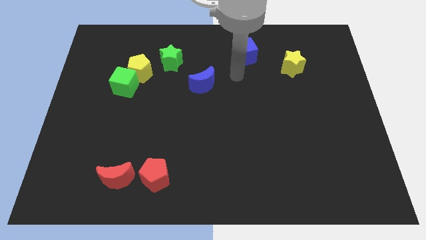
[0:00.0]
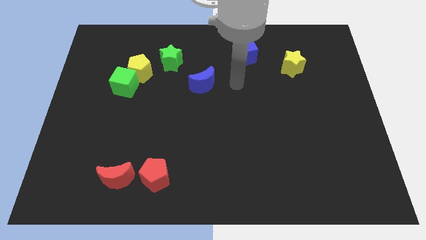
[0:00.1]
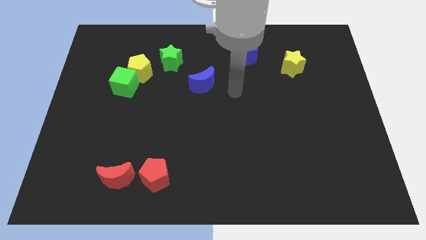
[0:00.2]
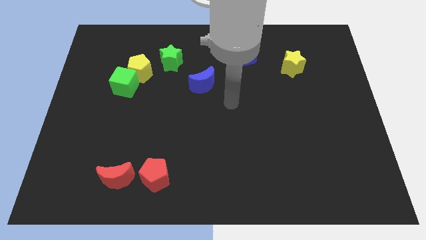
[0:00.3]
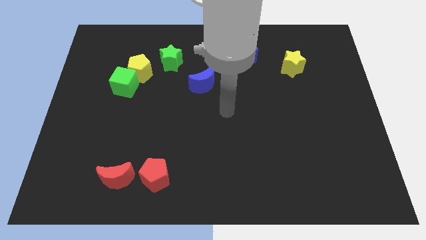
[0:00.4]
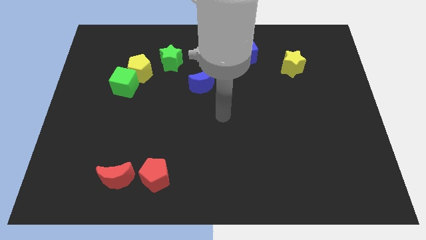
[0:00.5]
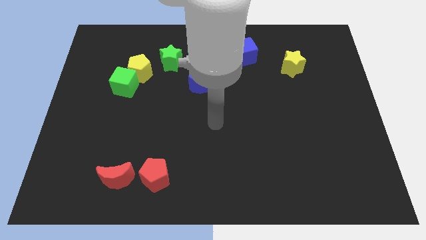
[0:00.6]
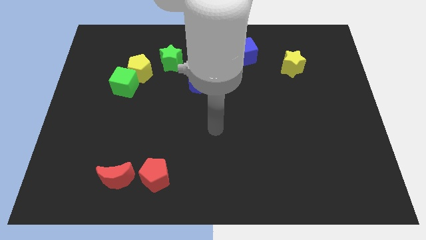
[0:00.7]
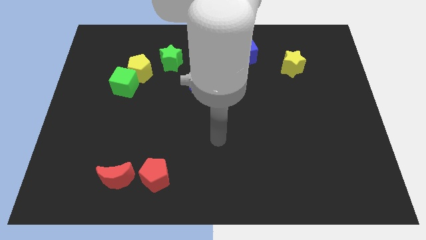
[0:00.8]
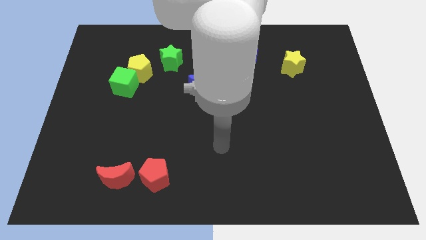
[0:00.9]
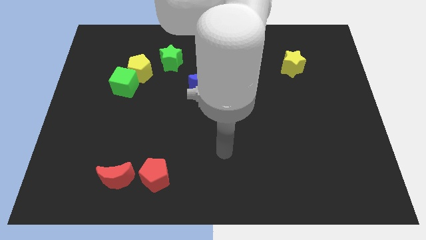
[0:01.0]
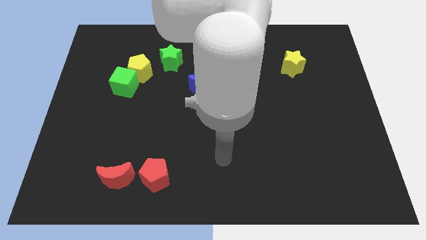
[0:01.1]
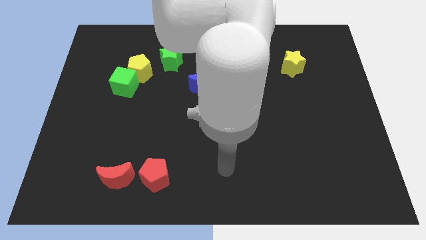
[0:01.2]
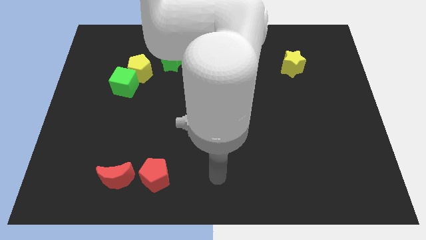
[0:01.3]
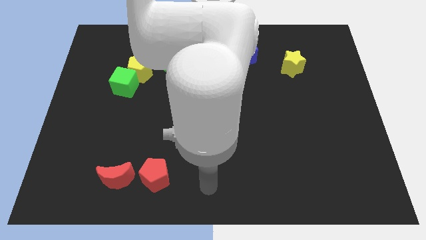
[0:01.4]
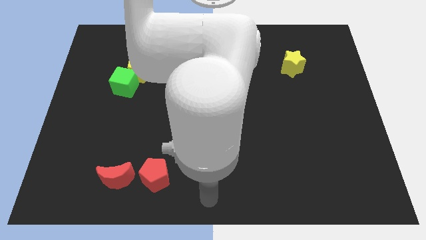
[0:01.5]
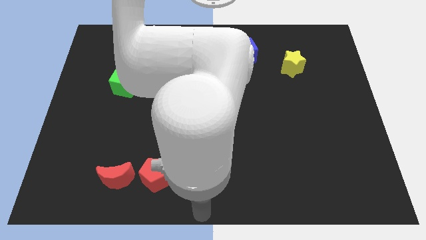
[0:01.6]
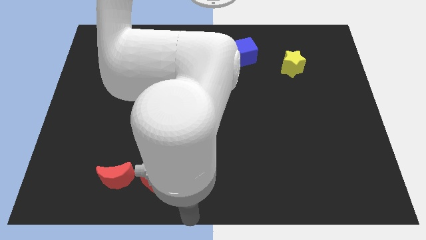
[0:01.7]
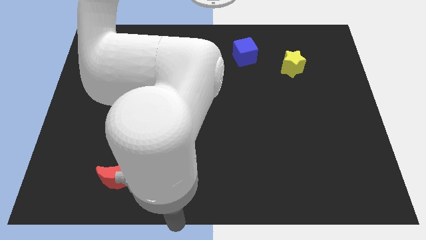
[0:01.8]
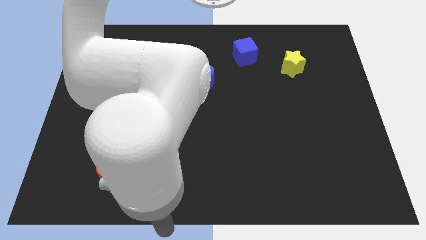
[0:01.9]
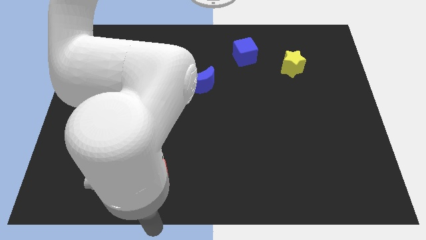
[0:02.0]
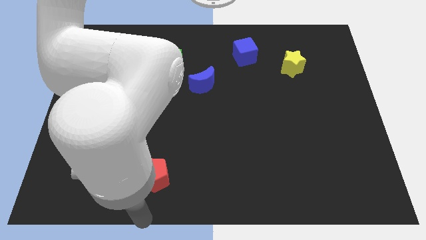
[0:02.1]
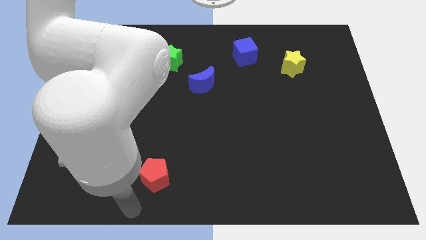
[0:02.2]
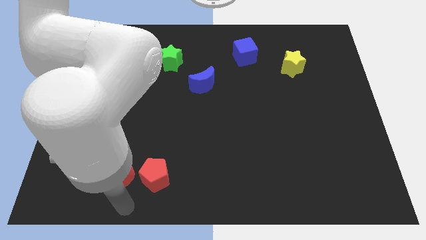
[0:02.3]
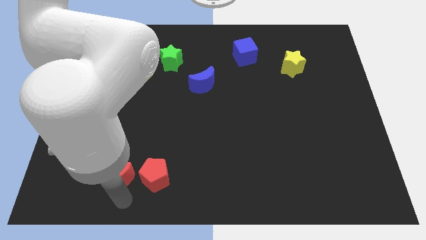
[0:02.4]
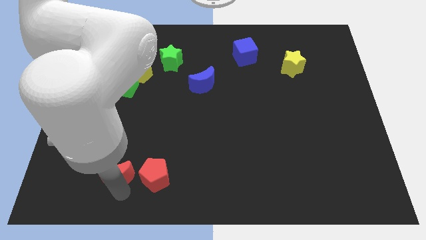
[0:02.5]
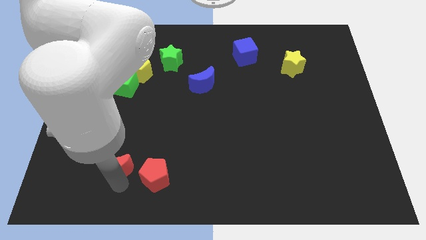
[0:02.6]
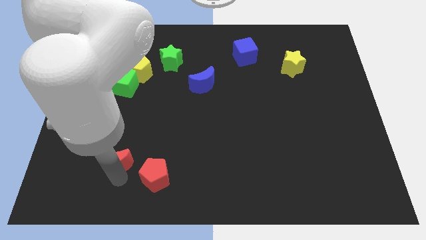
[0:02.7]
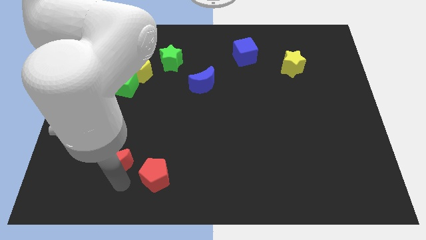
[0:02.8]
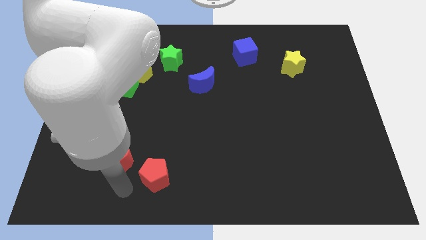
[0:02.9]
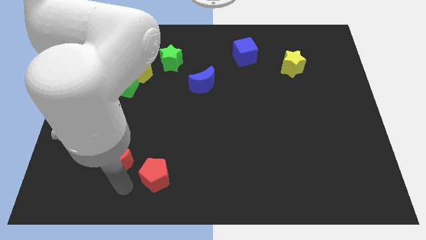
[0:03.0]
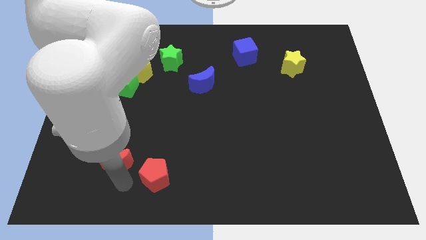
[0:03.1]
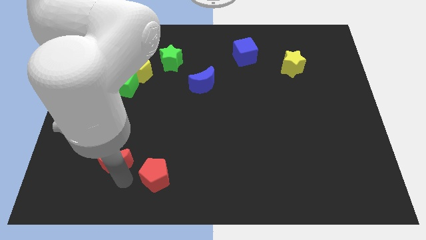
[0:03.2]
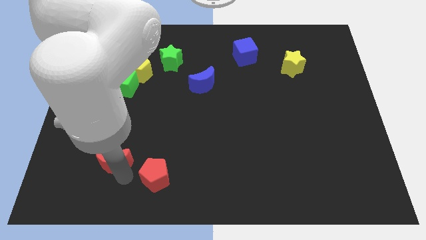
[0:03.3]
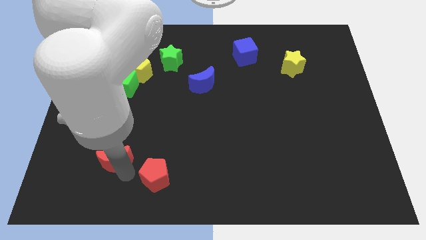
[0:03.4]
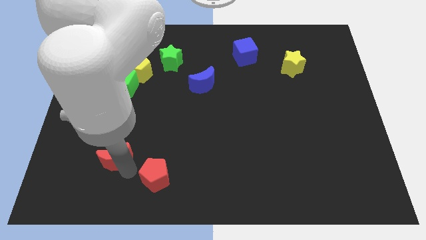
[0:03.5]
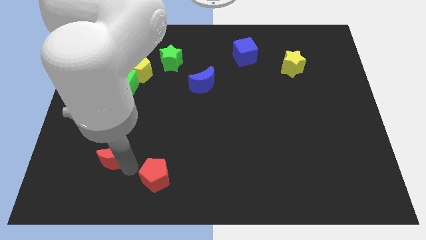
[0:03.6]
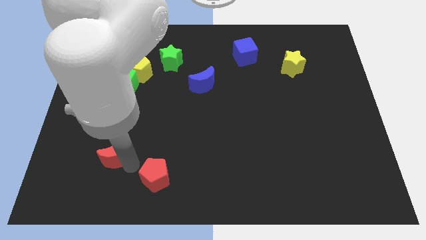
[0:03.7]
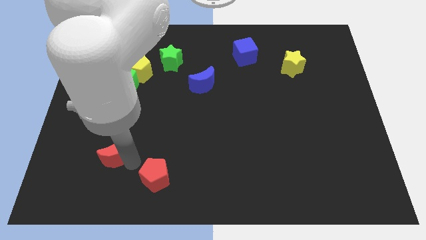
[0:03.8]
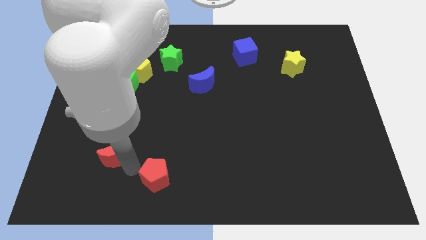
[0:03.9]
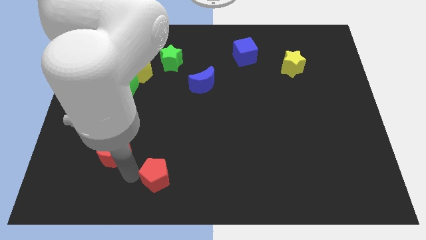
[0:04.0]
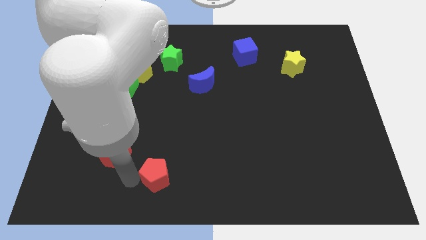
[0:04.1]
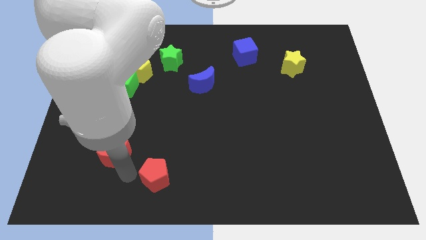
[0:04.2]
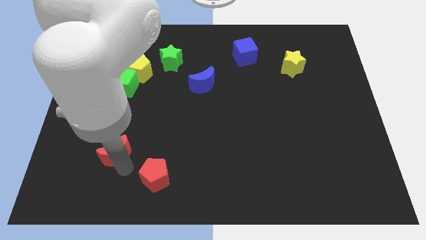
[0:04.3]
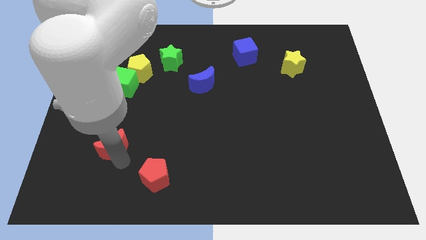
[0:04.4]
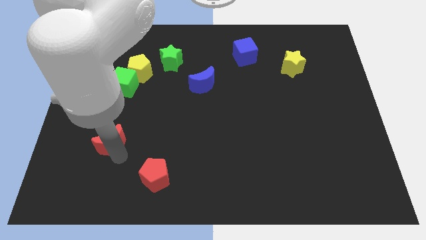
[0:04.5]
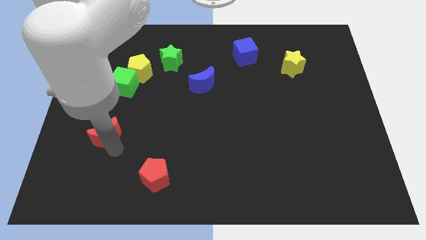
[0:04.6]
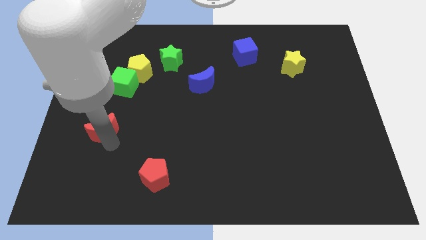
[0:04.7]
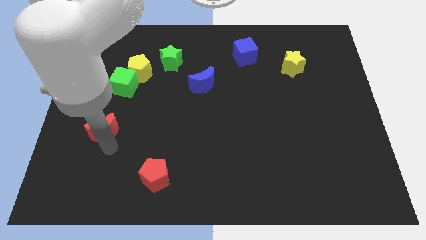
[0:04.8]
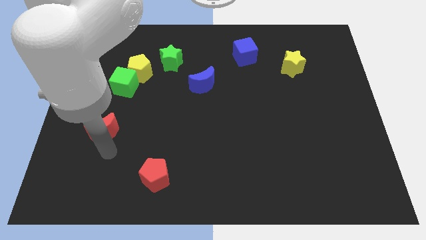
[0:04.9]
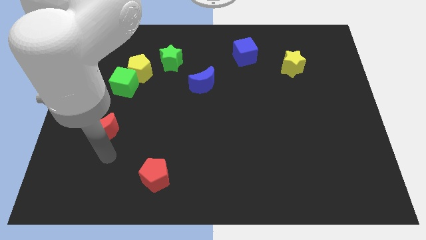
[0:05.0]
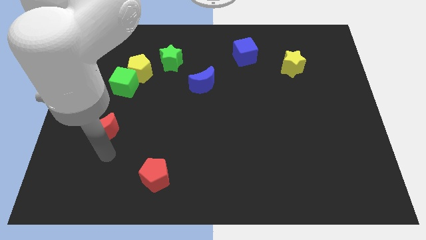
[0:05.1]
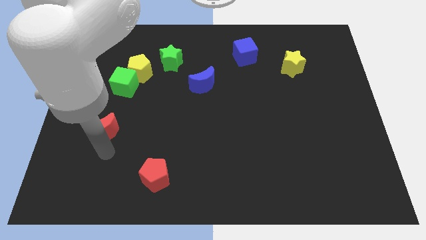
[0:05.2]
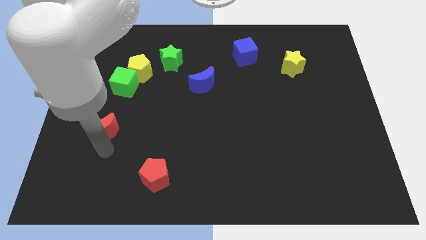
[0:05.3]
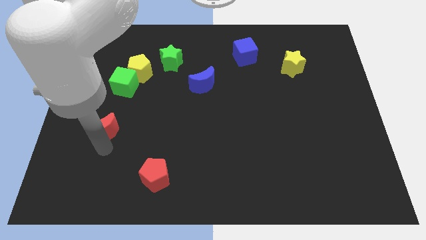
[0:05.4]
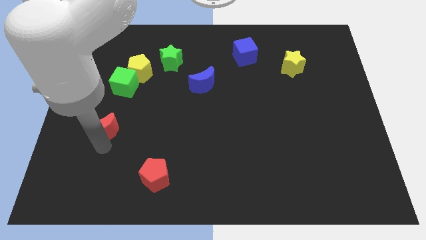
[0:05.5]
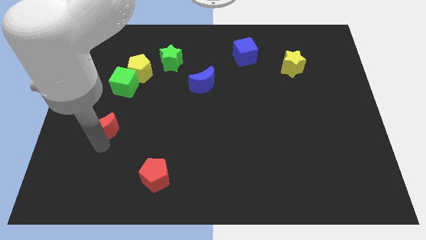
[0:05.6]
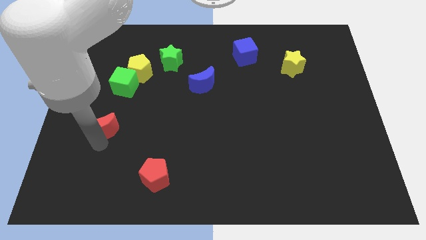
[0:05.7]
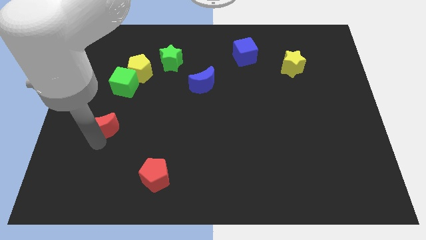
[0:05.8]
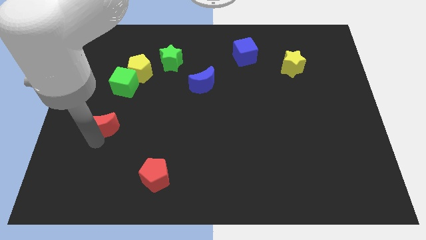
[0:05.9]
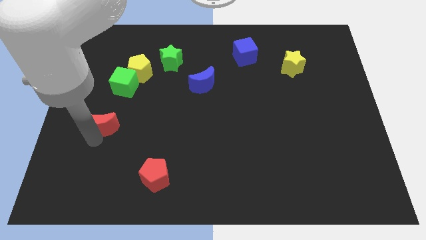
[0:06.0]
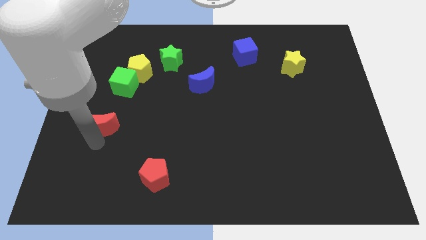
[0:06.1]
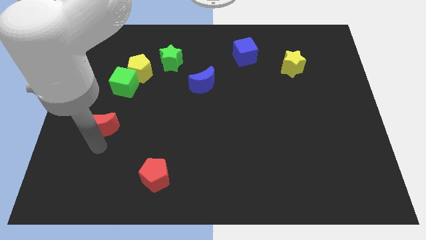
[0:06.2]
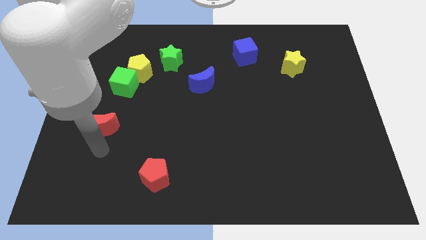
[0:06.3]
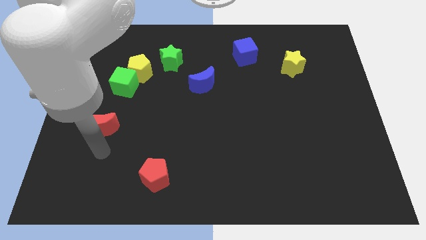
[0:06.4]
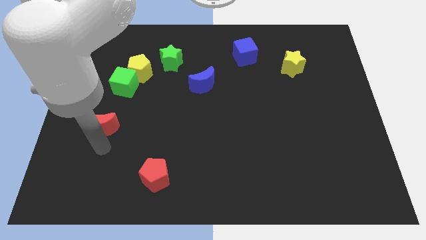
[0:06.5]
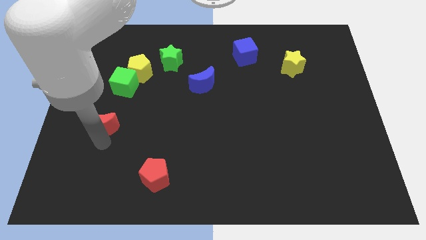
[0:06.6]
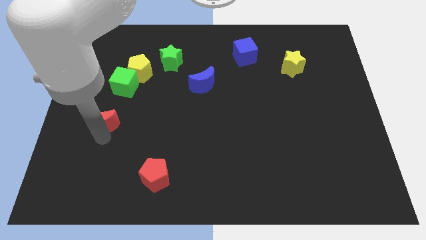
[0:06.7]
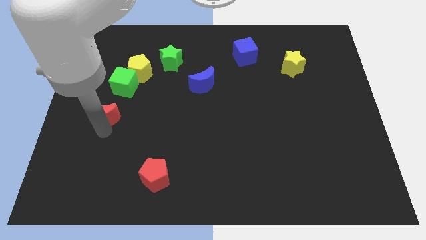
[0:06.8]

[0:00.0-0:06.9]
move the red moon to the bottom left of the green cube
